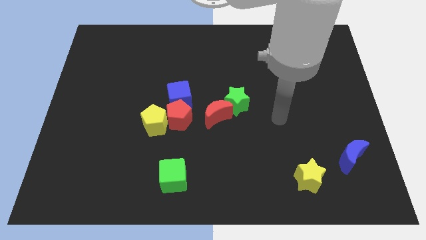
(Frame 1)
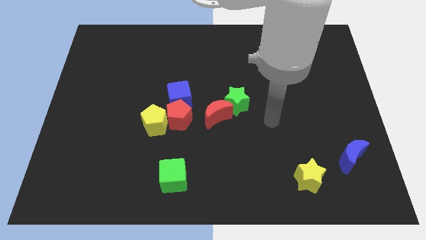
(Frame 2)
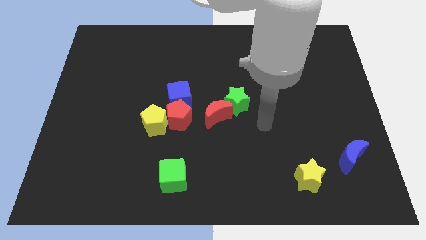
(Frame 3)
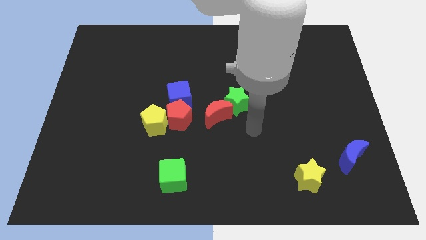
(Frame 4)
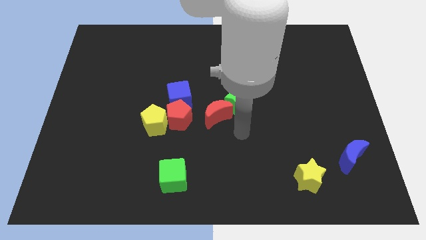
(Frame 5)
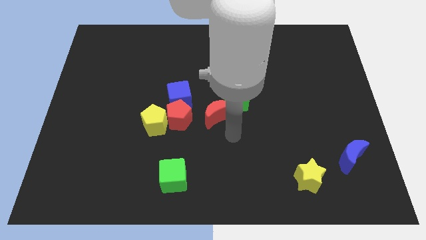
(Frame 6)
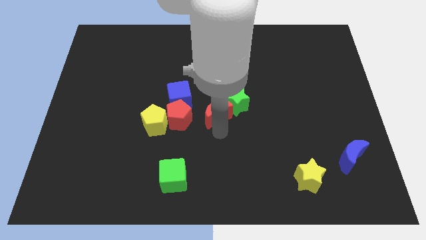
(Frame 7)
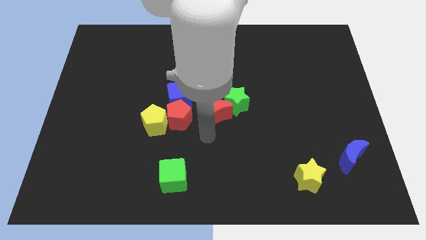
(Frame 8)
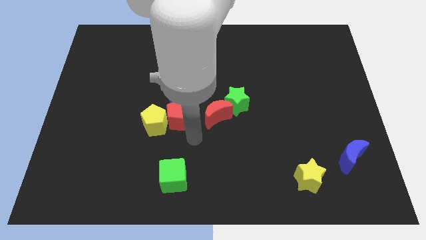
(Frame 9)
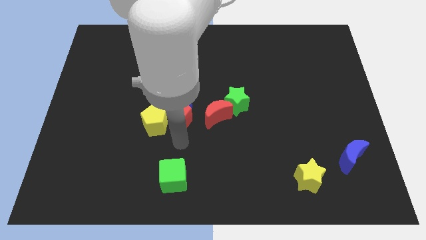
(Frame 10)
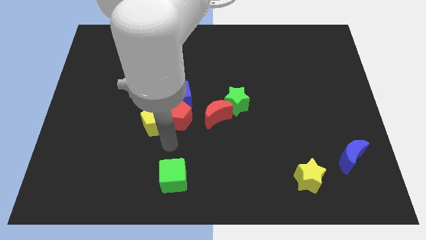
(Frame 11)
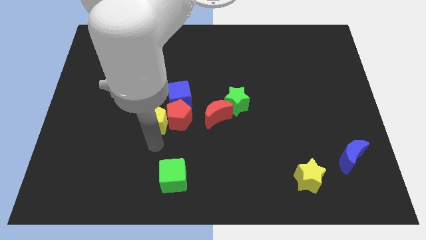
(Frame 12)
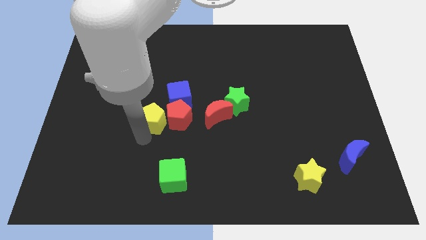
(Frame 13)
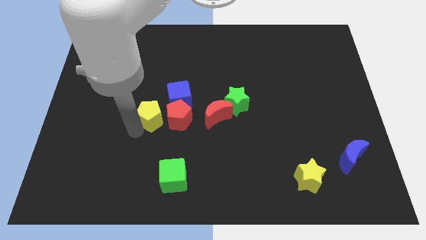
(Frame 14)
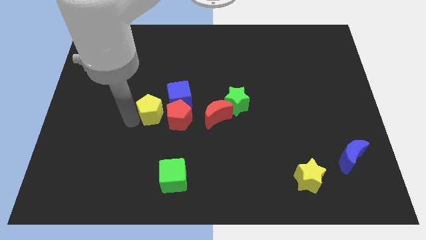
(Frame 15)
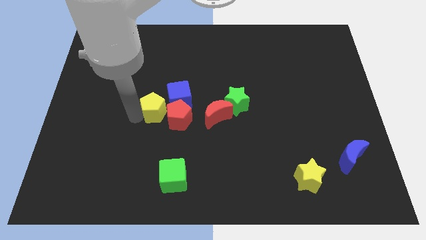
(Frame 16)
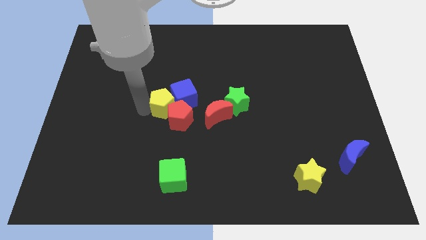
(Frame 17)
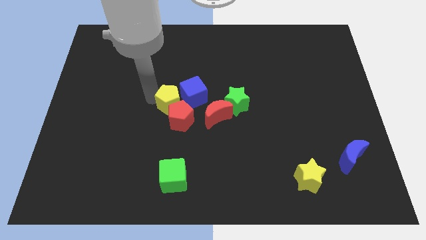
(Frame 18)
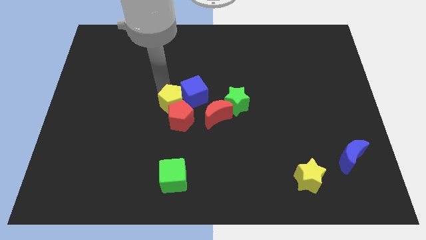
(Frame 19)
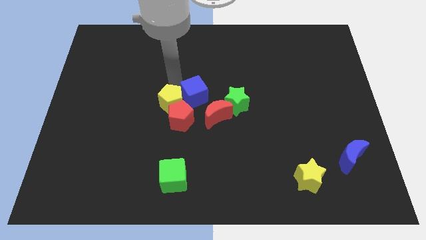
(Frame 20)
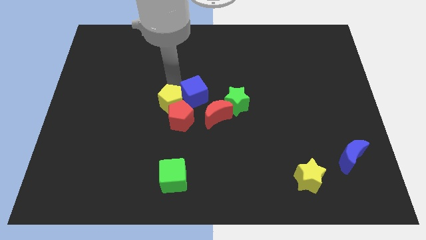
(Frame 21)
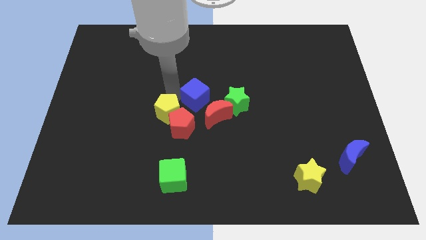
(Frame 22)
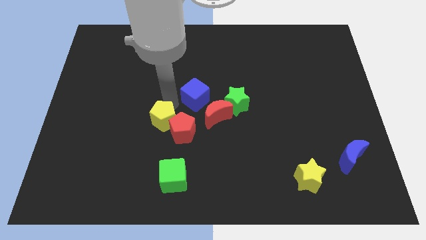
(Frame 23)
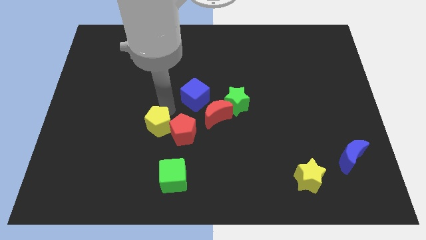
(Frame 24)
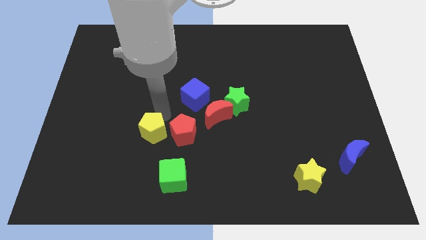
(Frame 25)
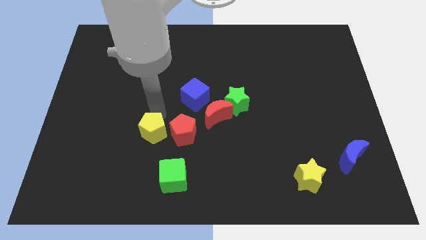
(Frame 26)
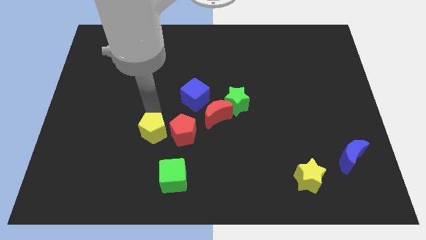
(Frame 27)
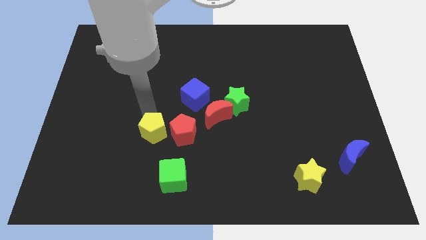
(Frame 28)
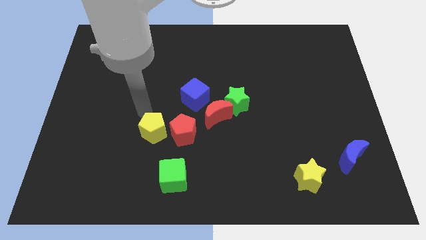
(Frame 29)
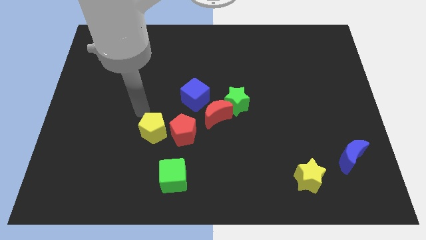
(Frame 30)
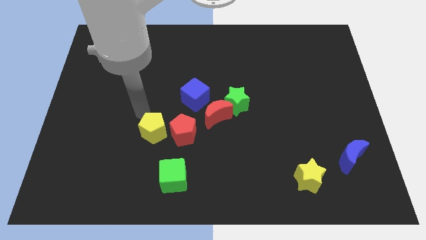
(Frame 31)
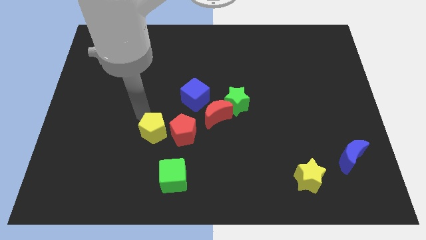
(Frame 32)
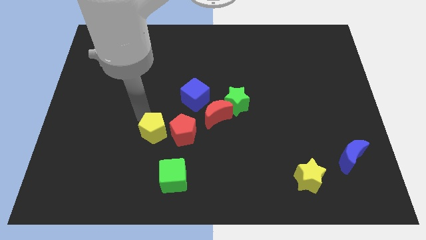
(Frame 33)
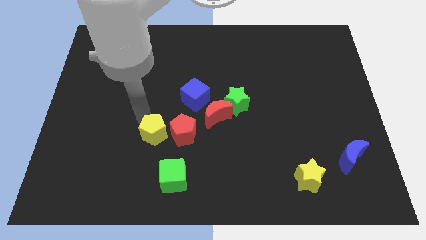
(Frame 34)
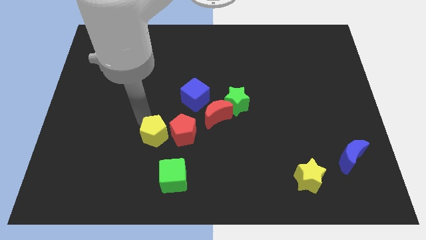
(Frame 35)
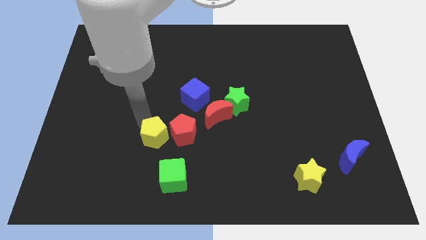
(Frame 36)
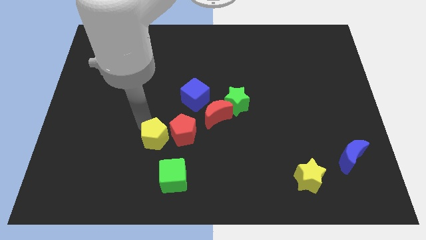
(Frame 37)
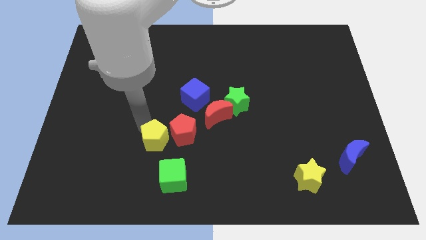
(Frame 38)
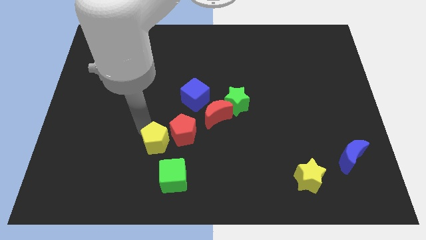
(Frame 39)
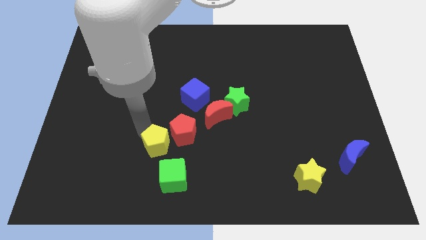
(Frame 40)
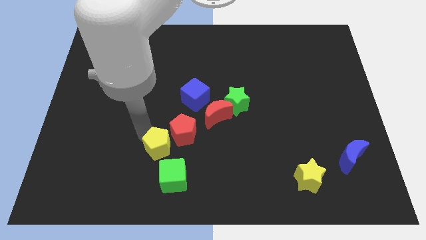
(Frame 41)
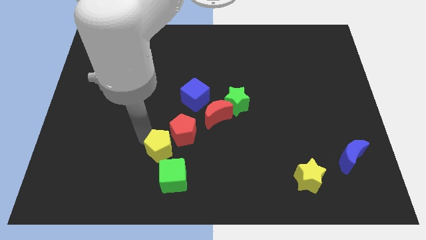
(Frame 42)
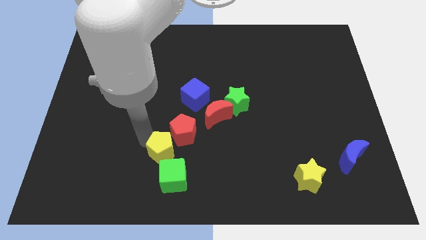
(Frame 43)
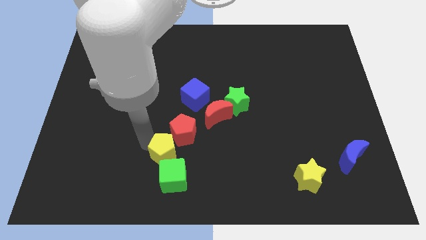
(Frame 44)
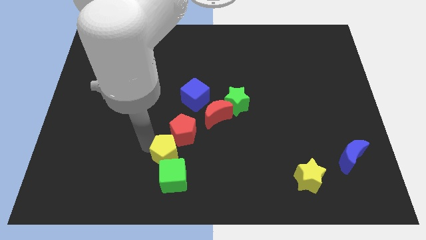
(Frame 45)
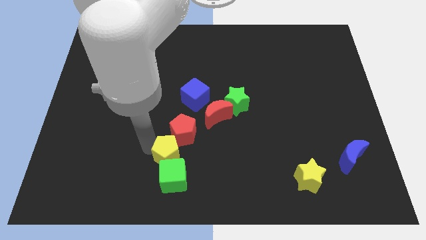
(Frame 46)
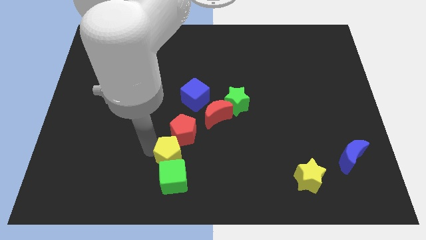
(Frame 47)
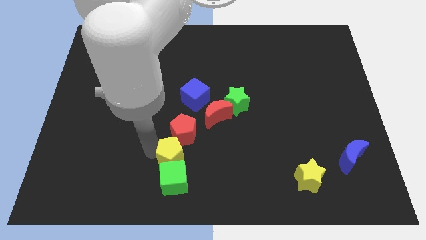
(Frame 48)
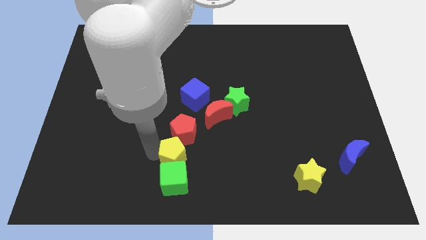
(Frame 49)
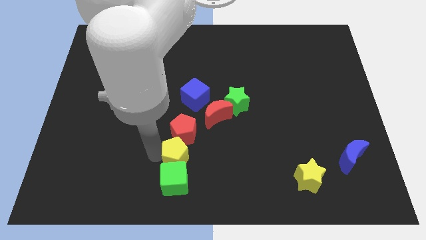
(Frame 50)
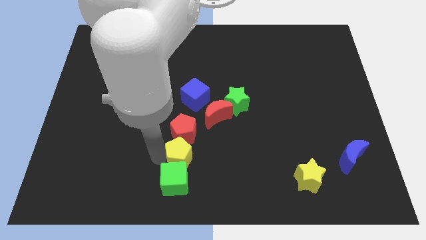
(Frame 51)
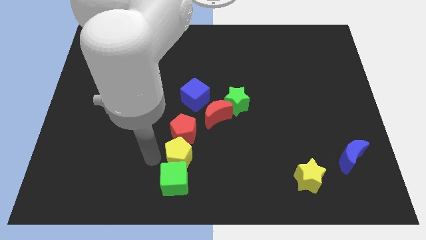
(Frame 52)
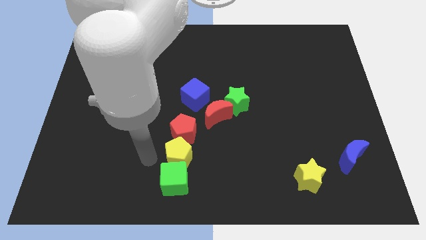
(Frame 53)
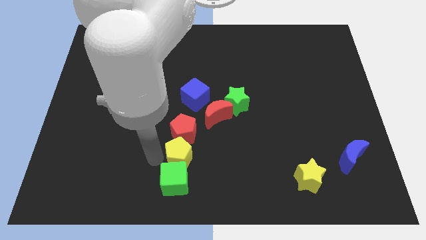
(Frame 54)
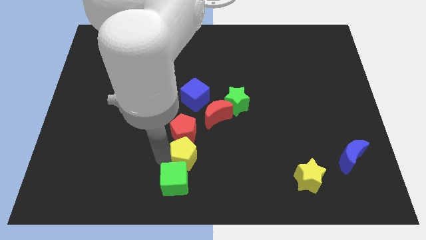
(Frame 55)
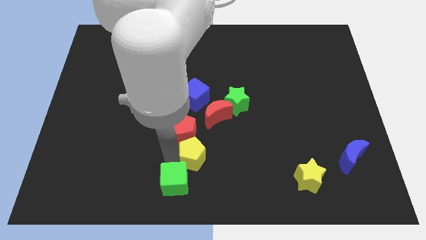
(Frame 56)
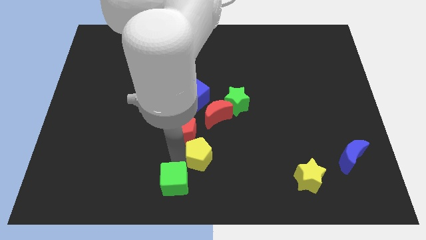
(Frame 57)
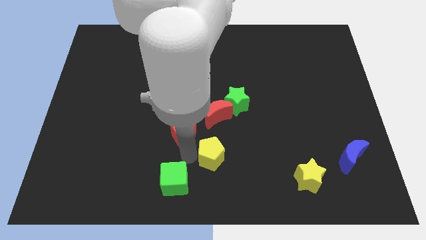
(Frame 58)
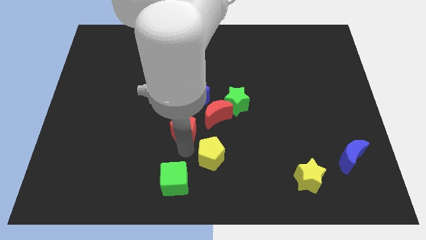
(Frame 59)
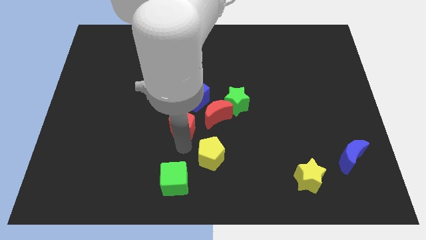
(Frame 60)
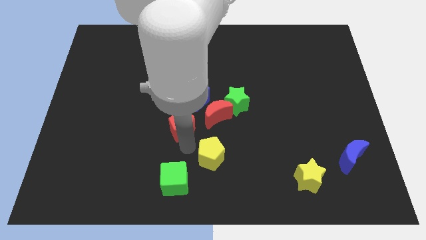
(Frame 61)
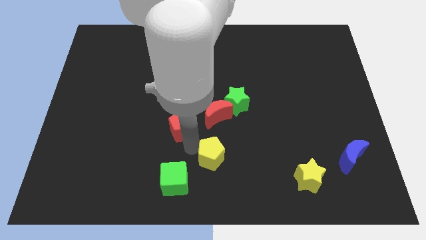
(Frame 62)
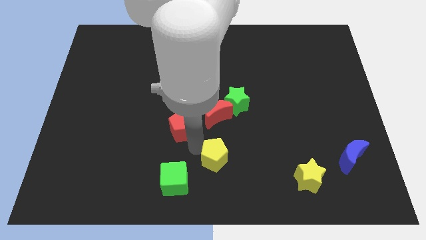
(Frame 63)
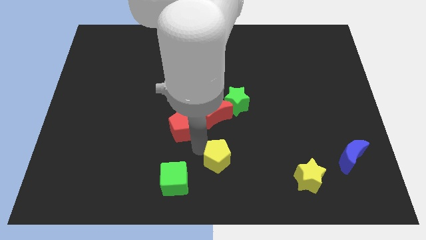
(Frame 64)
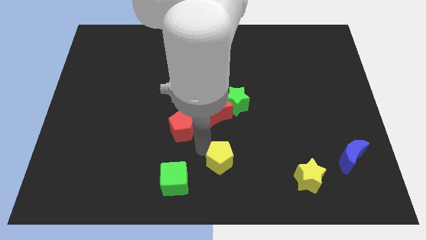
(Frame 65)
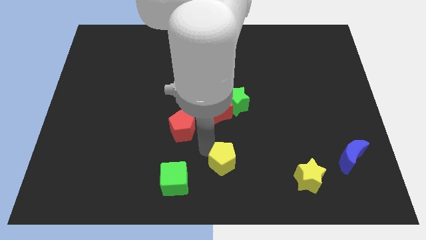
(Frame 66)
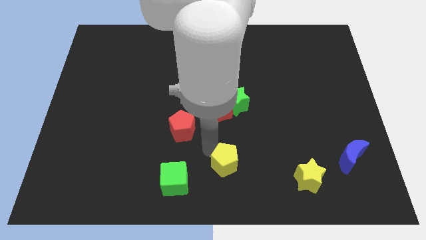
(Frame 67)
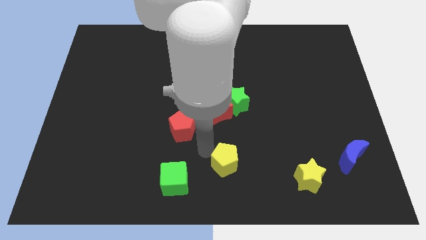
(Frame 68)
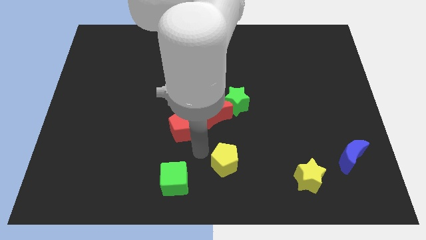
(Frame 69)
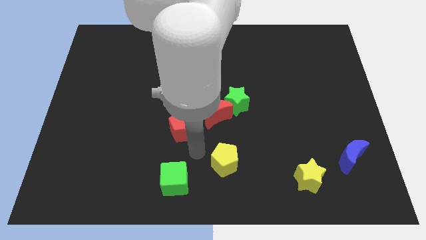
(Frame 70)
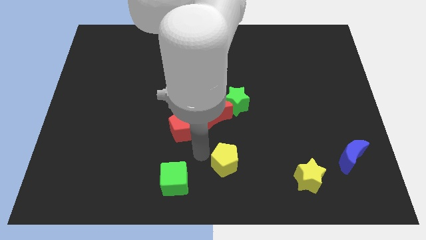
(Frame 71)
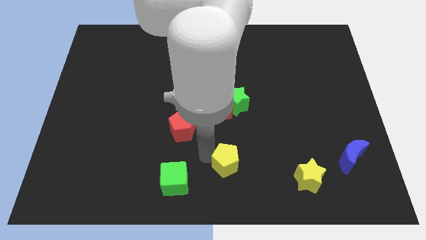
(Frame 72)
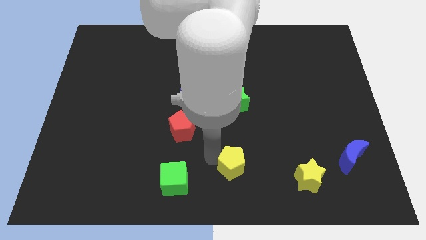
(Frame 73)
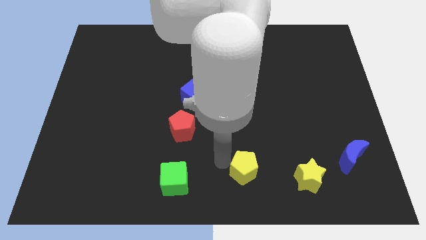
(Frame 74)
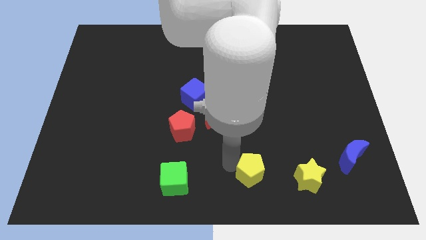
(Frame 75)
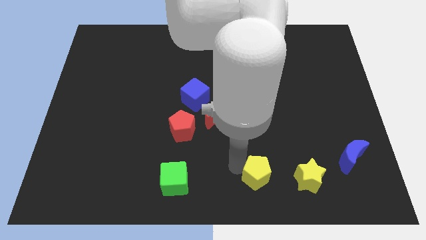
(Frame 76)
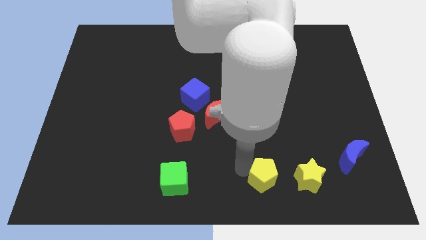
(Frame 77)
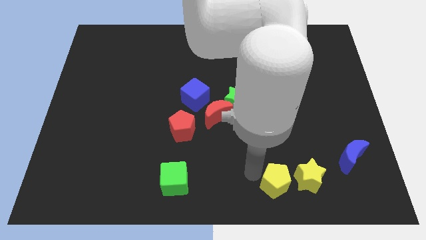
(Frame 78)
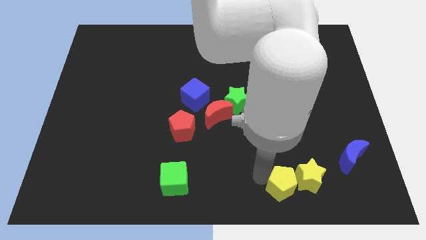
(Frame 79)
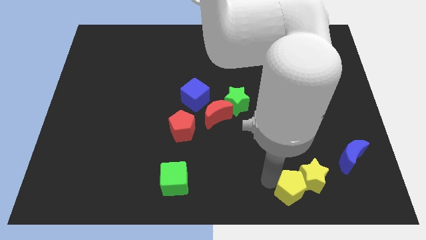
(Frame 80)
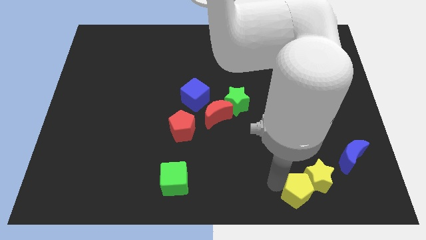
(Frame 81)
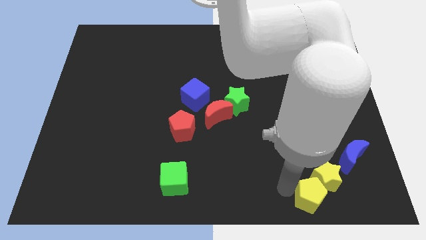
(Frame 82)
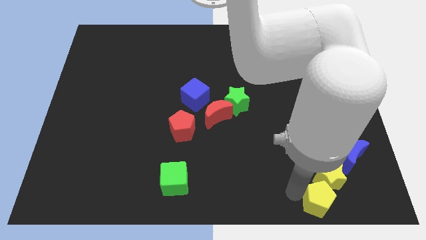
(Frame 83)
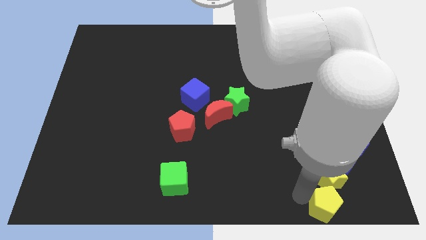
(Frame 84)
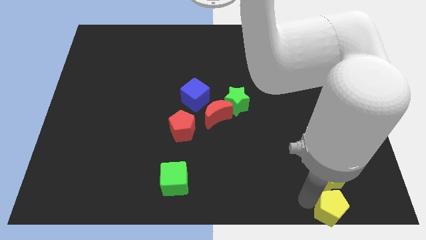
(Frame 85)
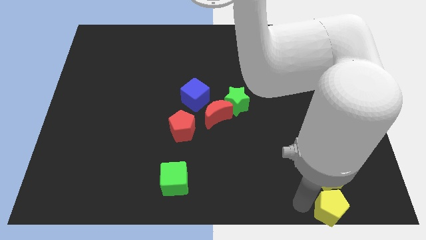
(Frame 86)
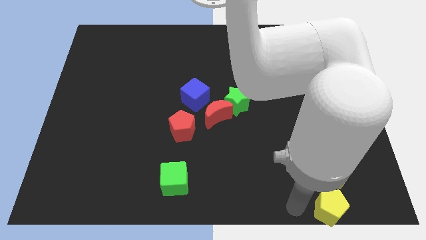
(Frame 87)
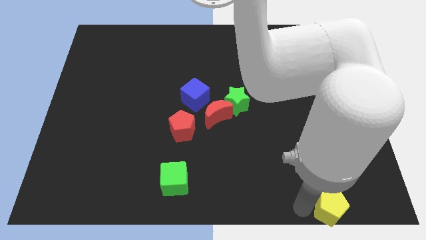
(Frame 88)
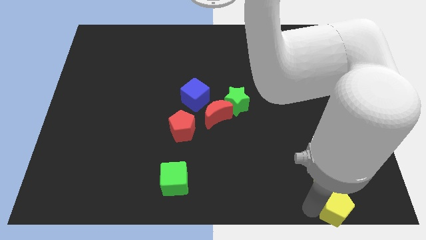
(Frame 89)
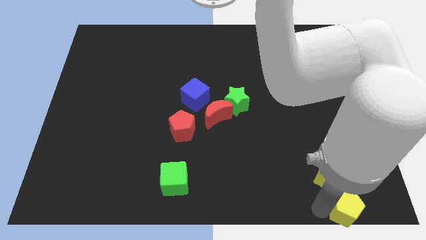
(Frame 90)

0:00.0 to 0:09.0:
put the yellow pentagon to the bottom right
